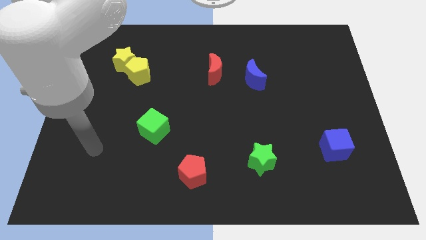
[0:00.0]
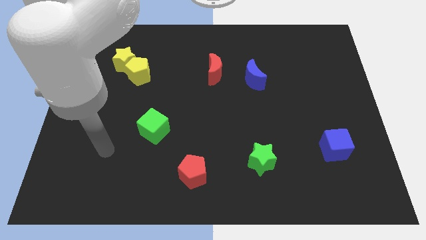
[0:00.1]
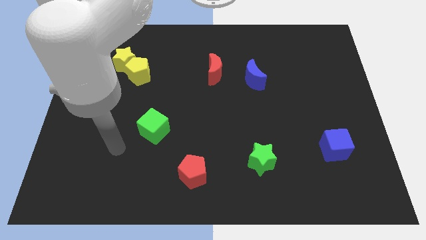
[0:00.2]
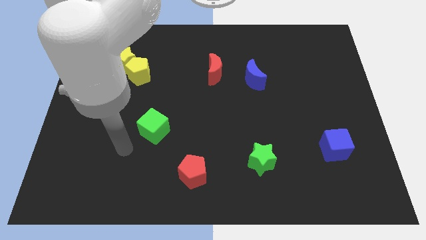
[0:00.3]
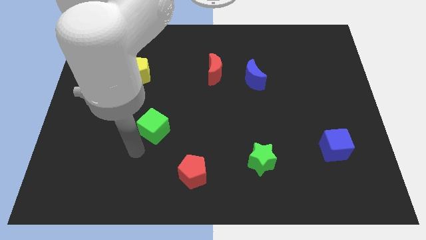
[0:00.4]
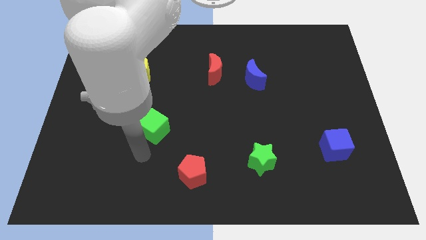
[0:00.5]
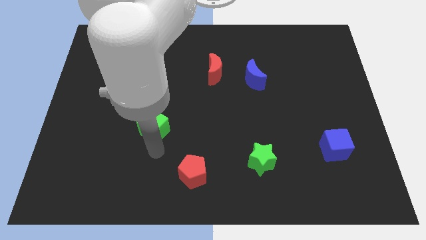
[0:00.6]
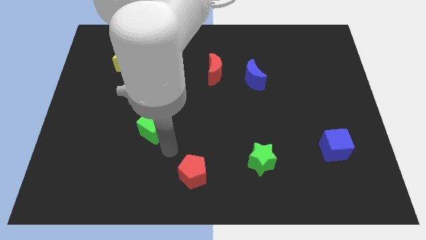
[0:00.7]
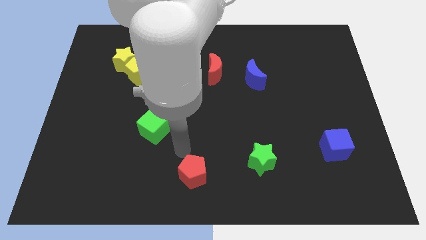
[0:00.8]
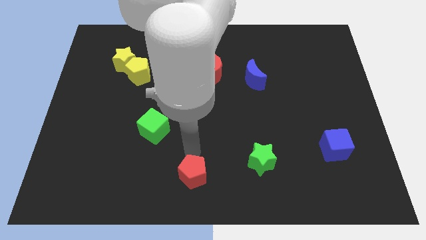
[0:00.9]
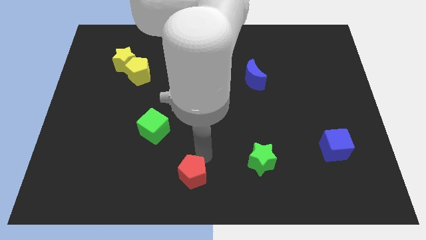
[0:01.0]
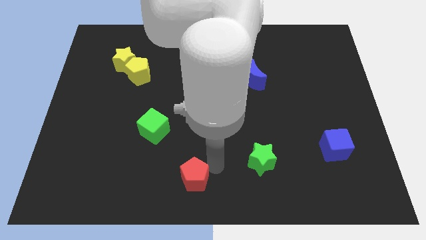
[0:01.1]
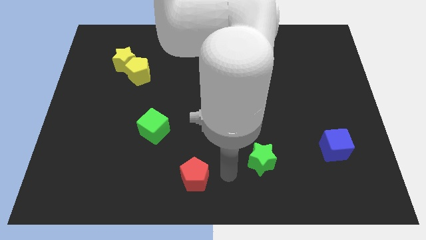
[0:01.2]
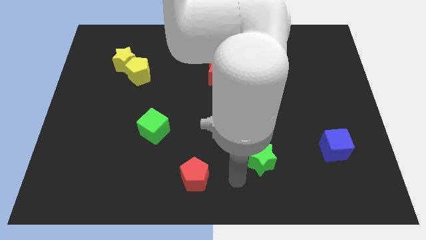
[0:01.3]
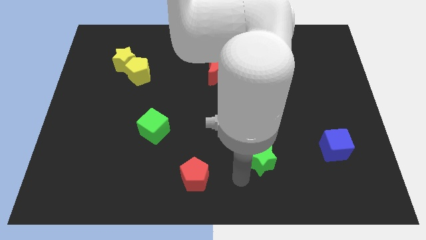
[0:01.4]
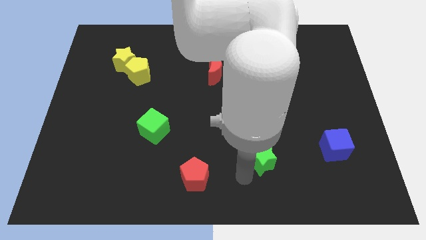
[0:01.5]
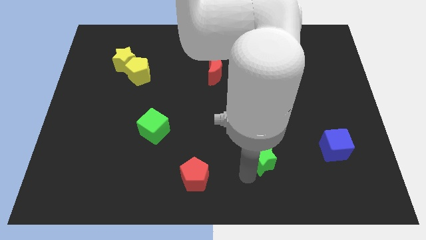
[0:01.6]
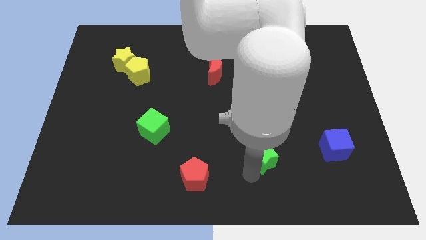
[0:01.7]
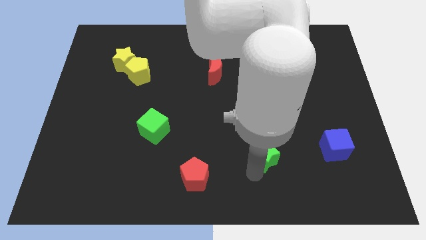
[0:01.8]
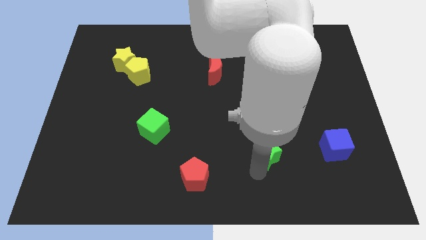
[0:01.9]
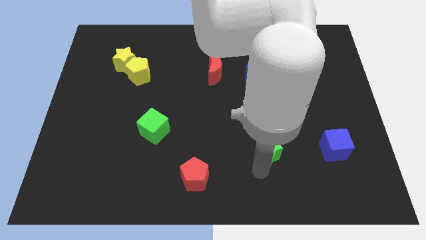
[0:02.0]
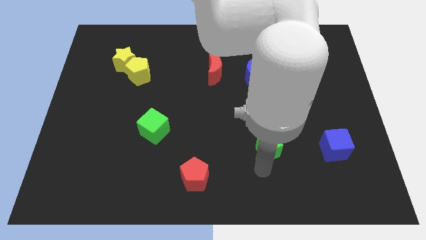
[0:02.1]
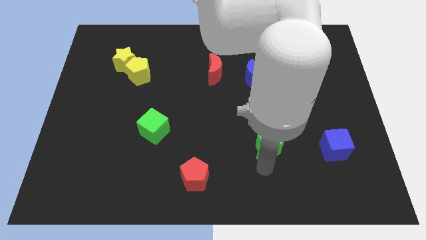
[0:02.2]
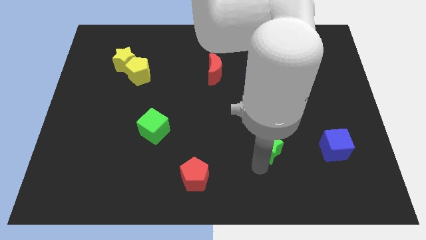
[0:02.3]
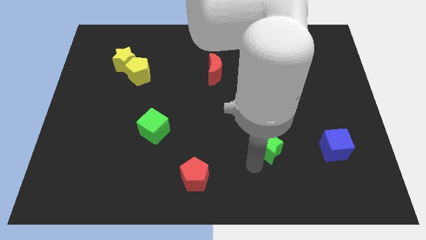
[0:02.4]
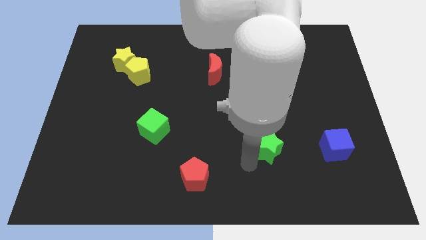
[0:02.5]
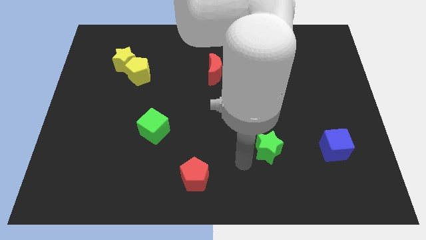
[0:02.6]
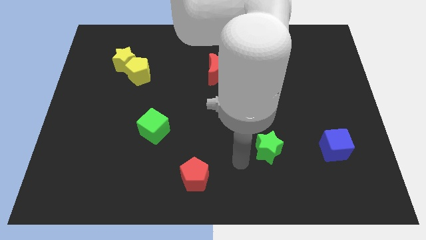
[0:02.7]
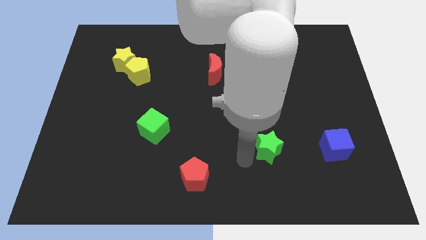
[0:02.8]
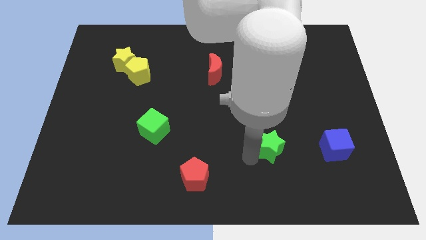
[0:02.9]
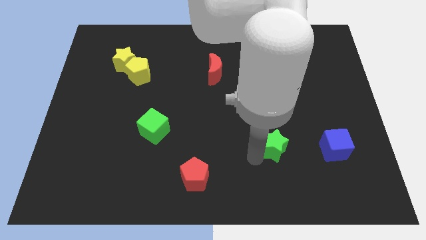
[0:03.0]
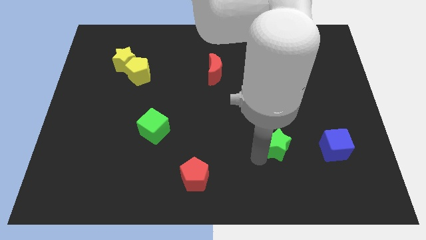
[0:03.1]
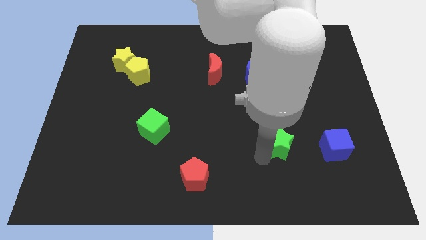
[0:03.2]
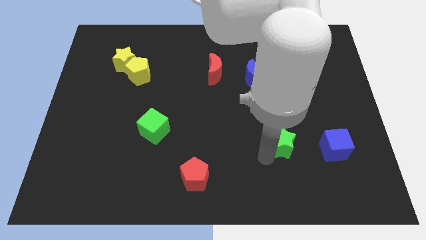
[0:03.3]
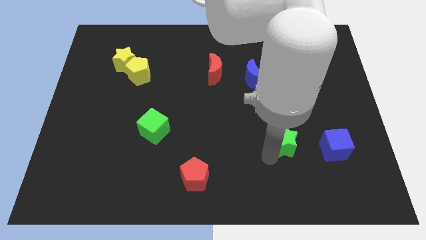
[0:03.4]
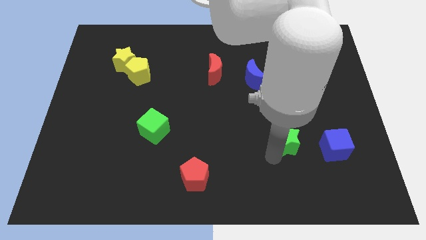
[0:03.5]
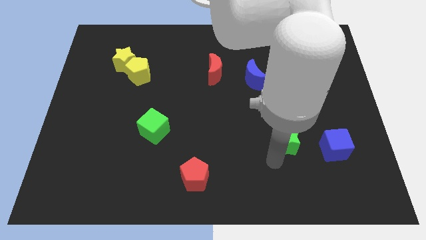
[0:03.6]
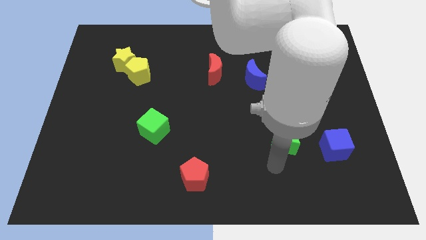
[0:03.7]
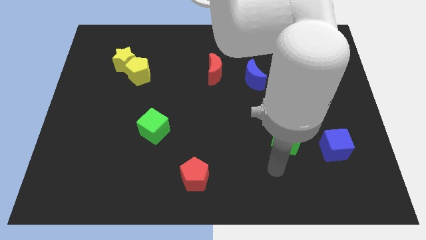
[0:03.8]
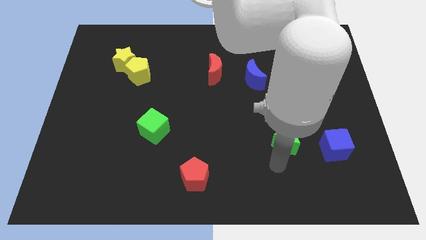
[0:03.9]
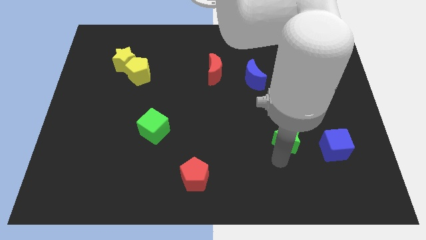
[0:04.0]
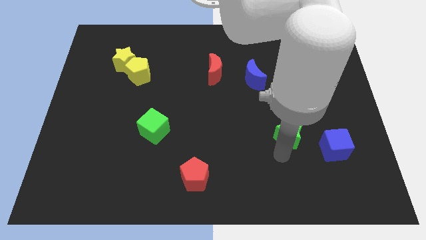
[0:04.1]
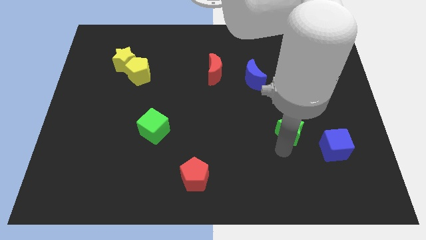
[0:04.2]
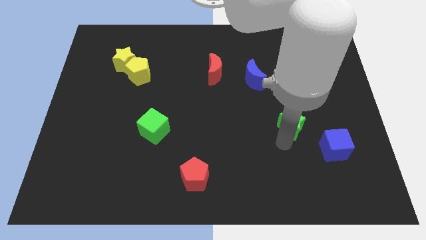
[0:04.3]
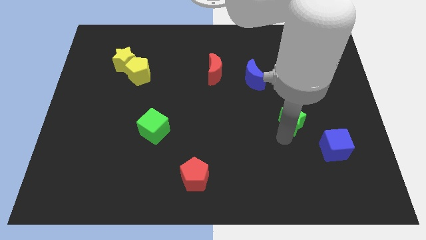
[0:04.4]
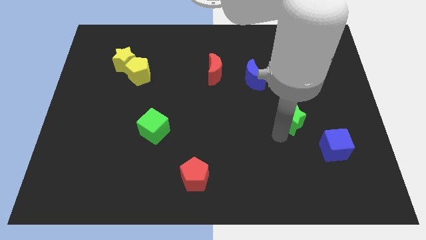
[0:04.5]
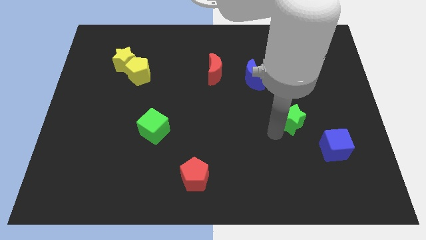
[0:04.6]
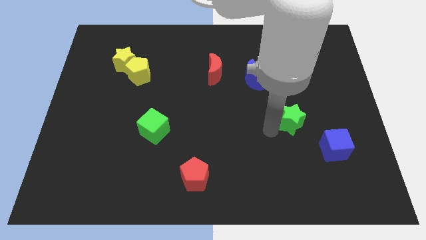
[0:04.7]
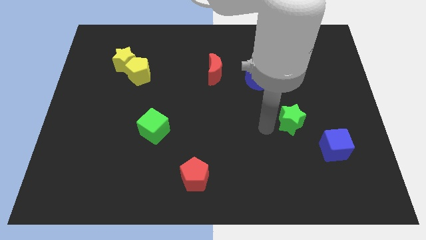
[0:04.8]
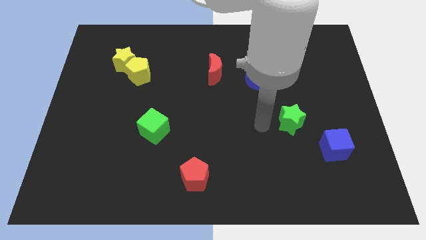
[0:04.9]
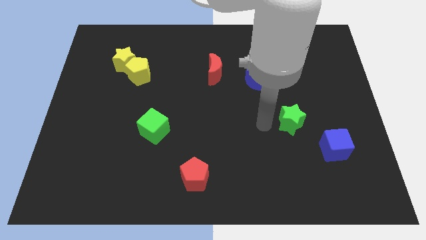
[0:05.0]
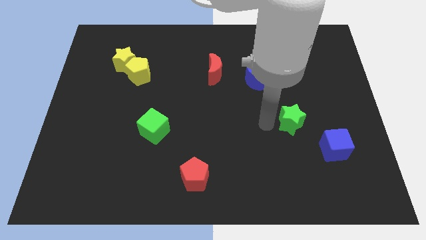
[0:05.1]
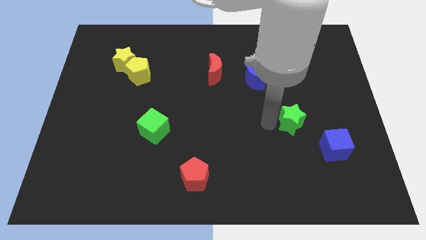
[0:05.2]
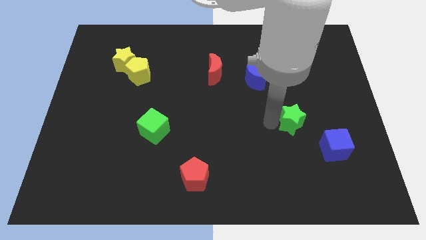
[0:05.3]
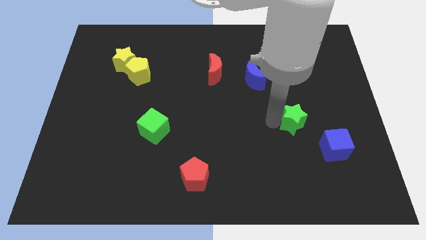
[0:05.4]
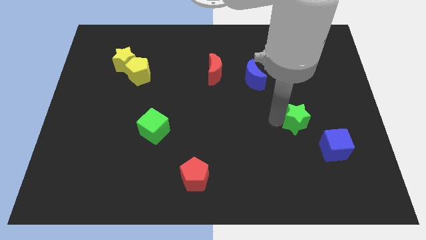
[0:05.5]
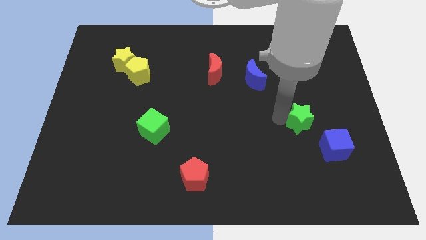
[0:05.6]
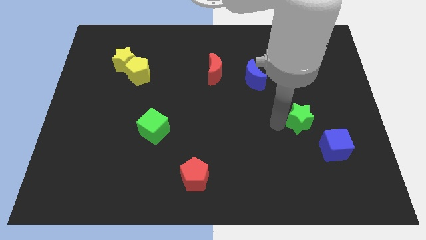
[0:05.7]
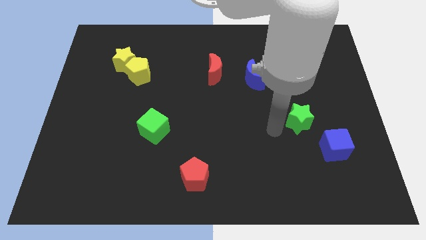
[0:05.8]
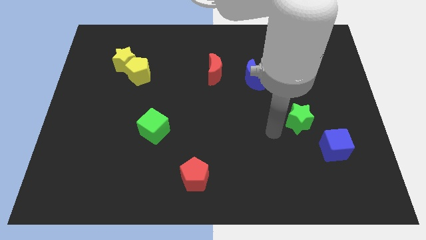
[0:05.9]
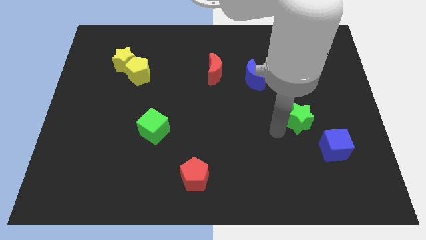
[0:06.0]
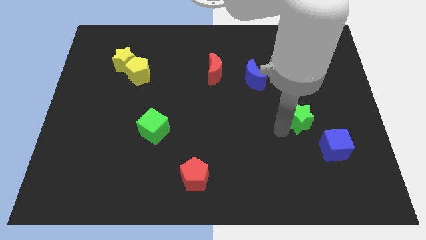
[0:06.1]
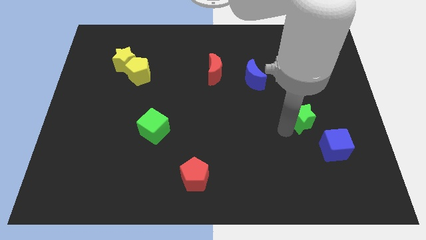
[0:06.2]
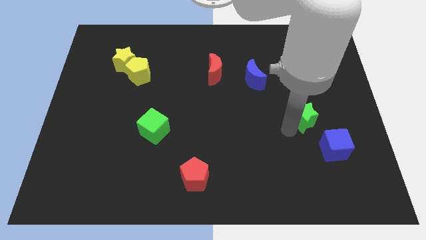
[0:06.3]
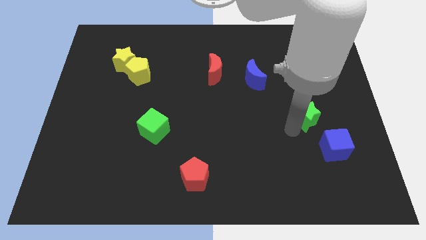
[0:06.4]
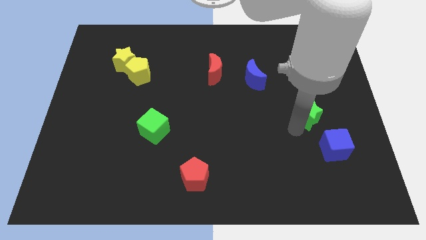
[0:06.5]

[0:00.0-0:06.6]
move the green star to the top of the blue cube

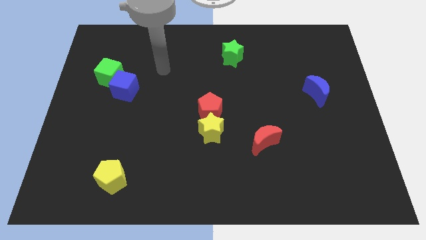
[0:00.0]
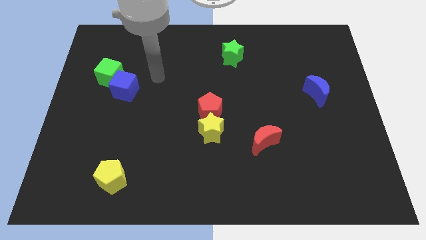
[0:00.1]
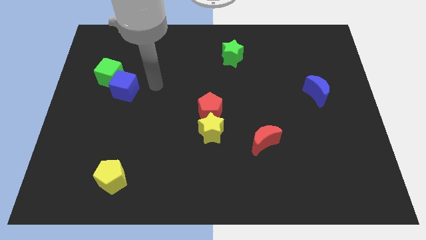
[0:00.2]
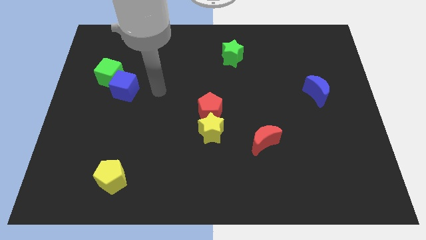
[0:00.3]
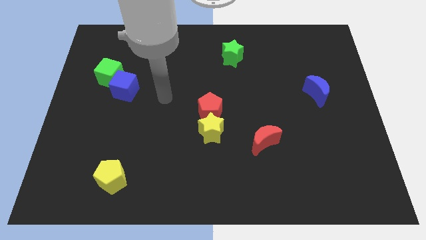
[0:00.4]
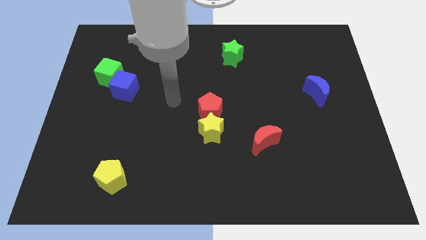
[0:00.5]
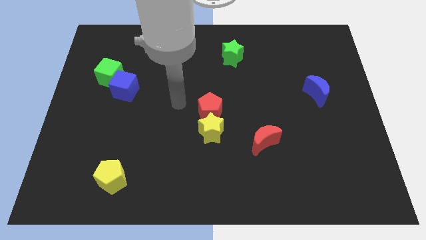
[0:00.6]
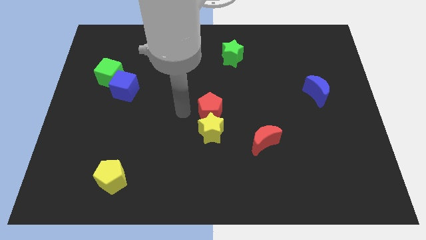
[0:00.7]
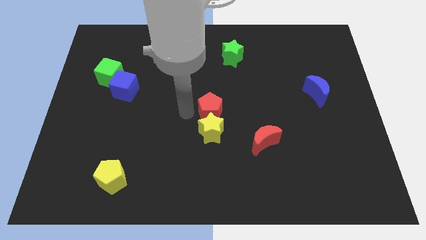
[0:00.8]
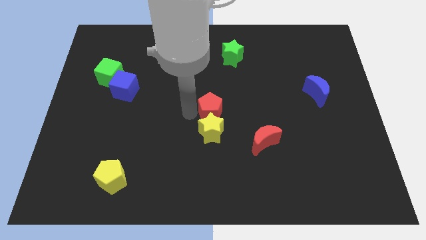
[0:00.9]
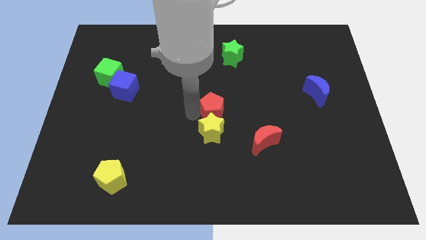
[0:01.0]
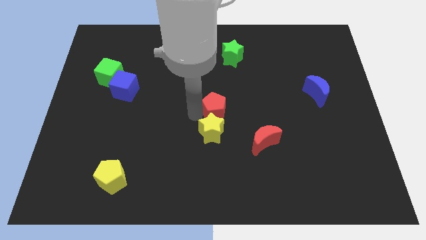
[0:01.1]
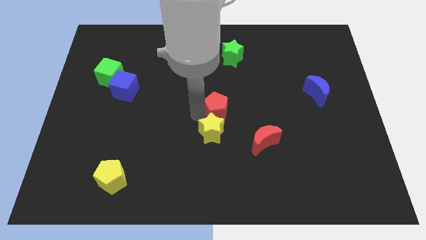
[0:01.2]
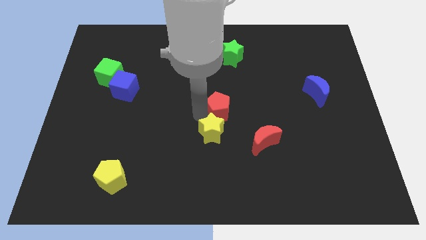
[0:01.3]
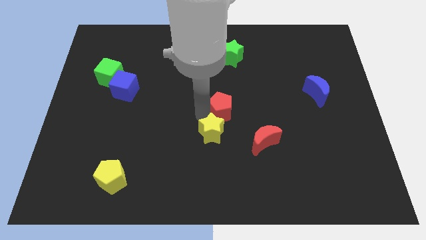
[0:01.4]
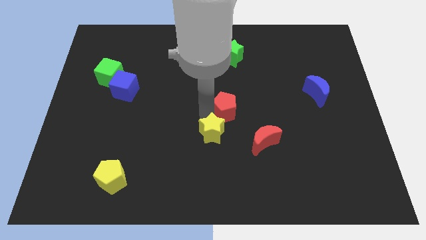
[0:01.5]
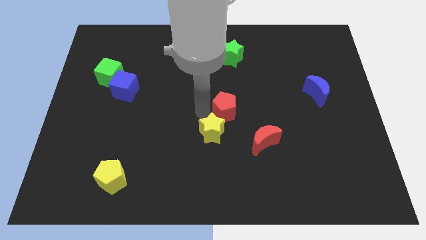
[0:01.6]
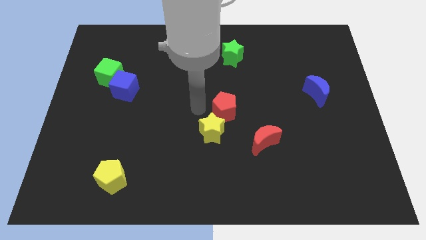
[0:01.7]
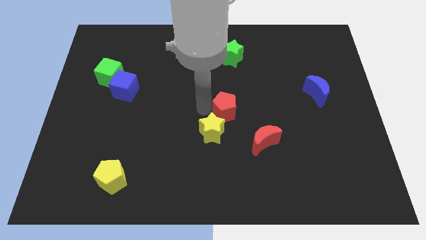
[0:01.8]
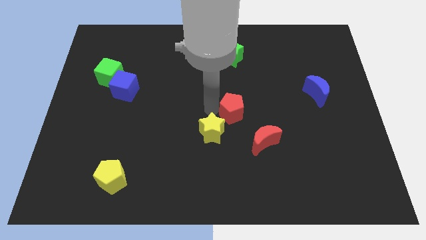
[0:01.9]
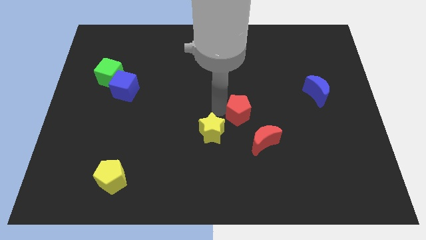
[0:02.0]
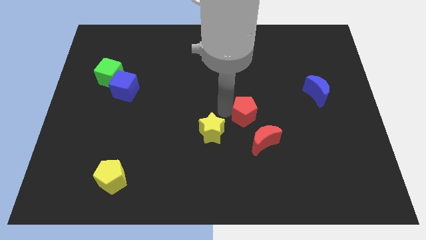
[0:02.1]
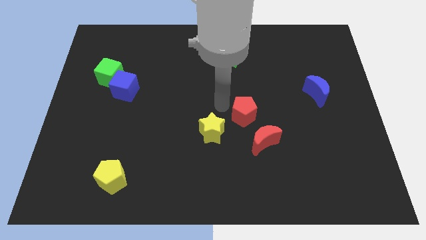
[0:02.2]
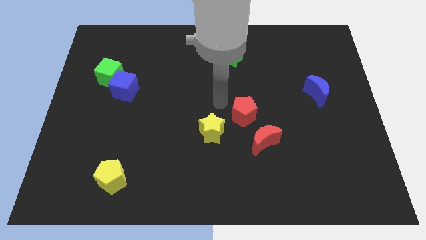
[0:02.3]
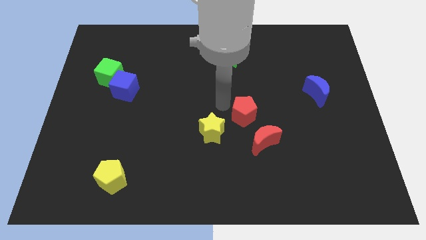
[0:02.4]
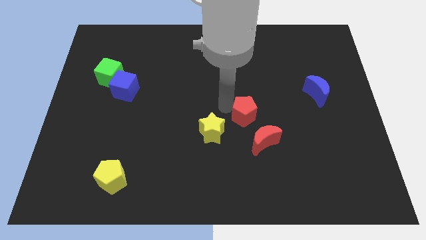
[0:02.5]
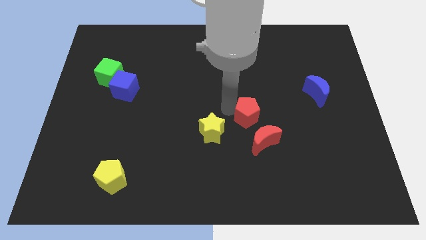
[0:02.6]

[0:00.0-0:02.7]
put the red pentagon right of the yellow star
